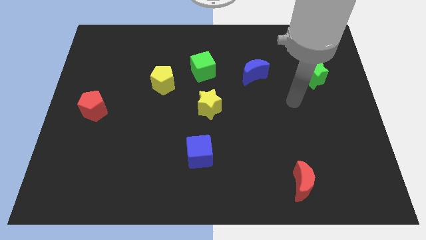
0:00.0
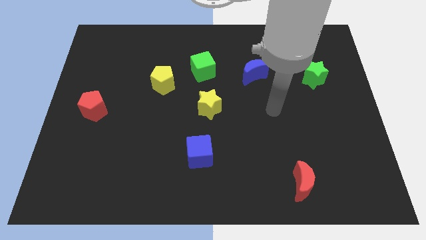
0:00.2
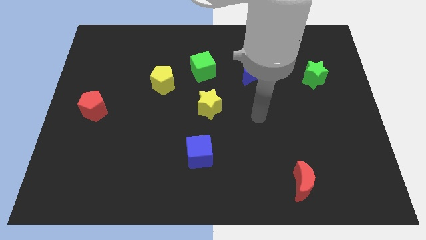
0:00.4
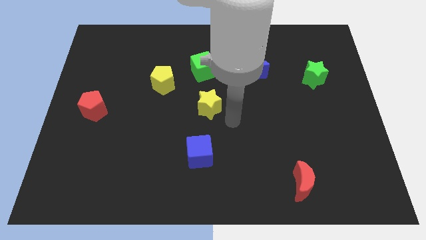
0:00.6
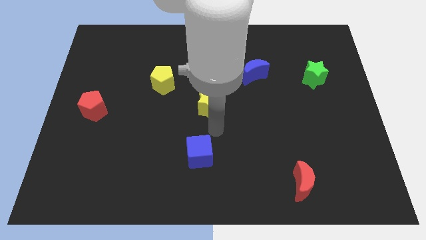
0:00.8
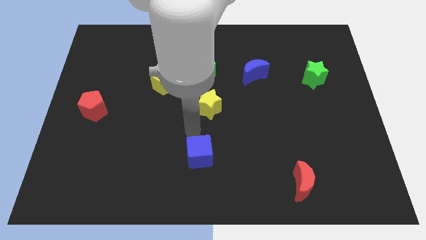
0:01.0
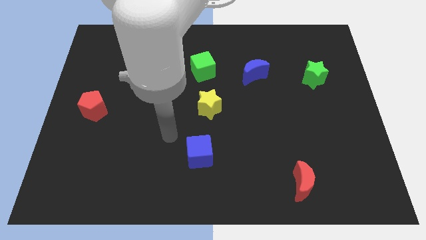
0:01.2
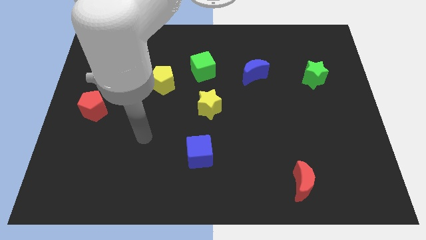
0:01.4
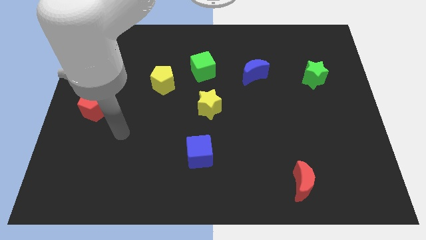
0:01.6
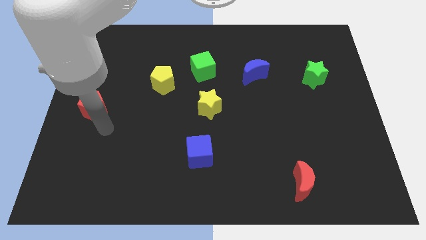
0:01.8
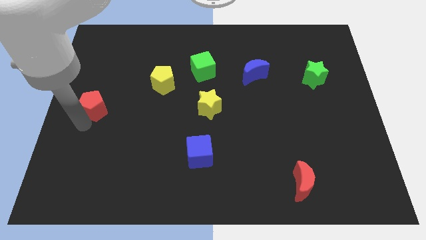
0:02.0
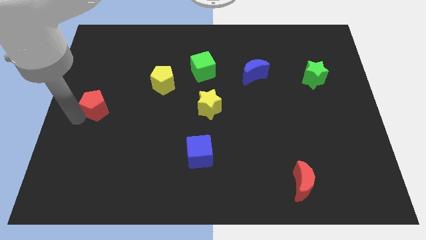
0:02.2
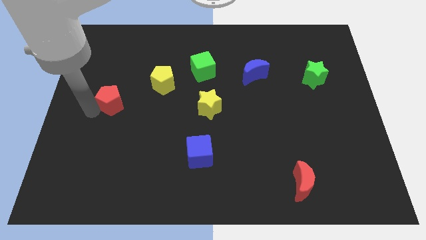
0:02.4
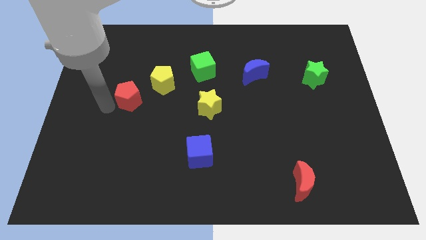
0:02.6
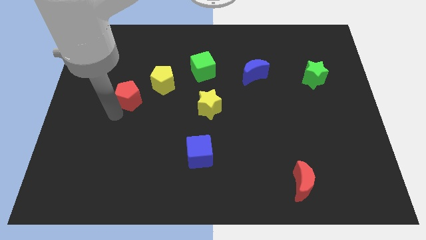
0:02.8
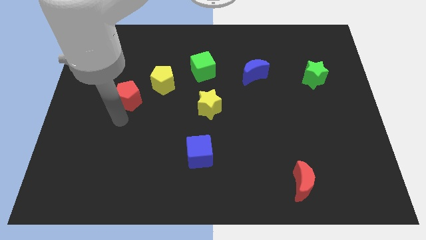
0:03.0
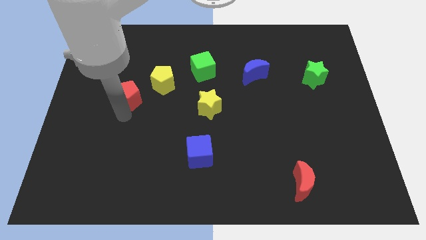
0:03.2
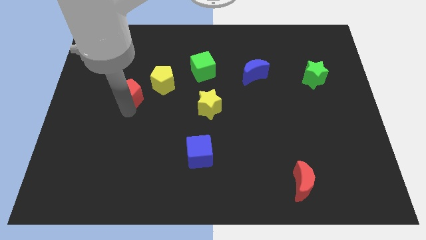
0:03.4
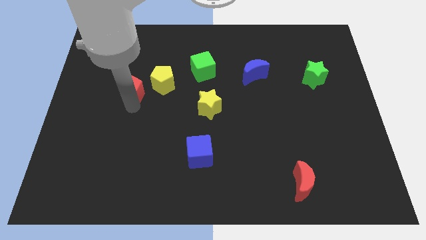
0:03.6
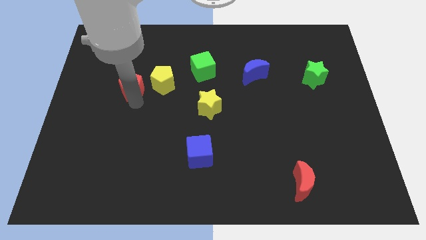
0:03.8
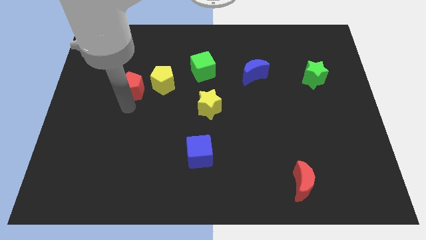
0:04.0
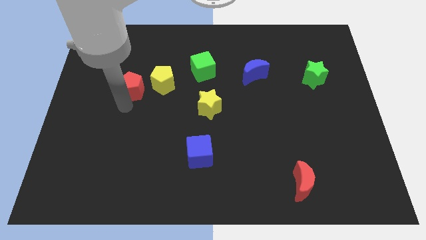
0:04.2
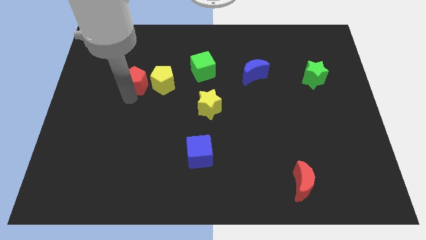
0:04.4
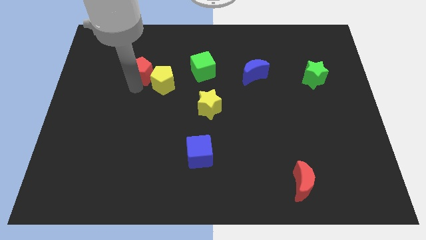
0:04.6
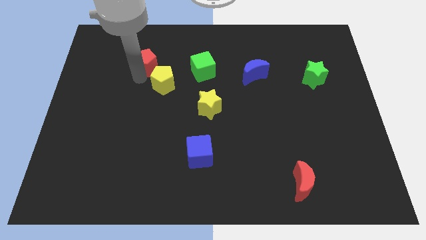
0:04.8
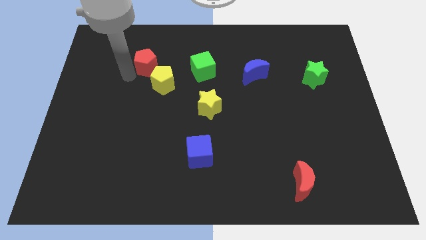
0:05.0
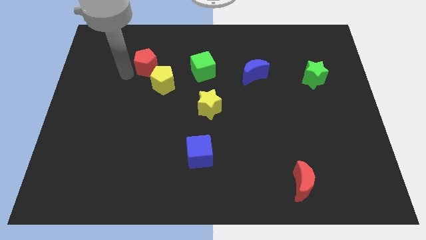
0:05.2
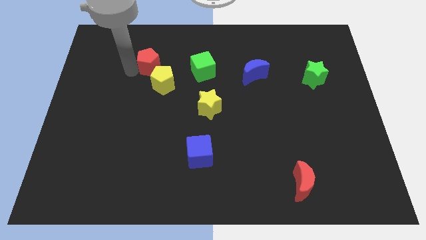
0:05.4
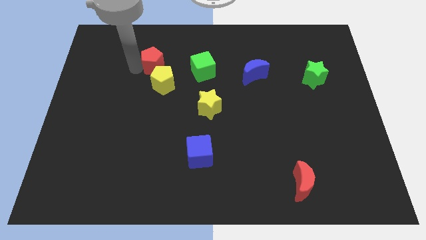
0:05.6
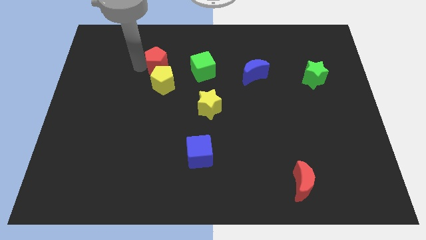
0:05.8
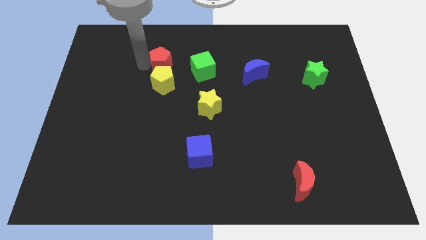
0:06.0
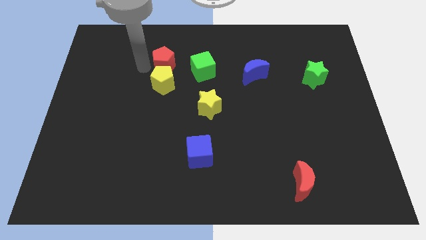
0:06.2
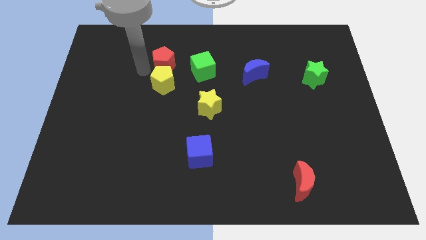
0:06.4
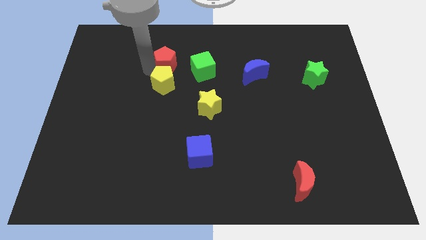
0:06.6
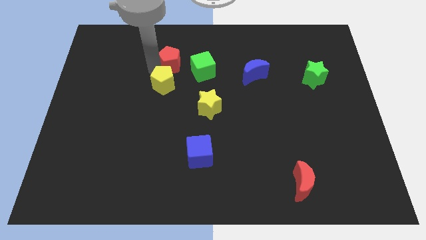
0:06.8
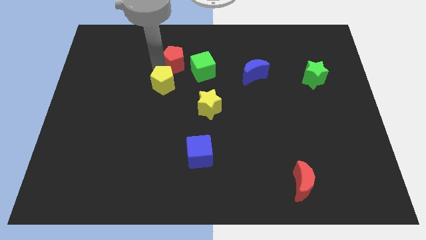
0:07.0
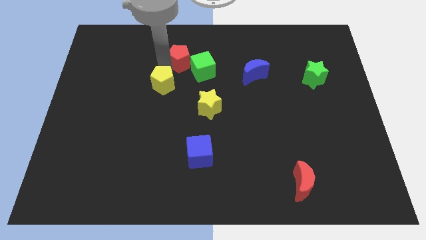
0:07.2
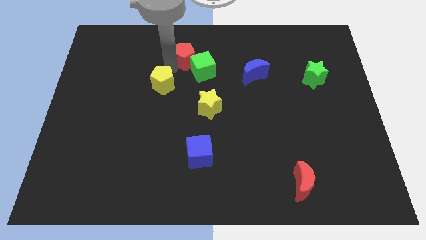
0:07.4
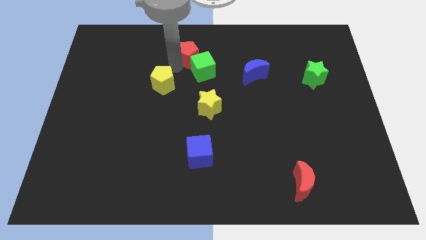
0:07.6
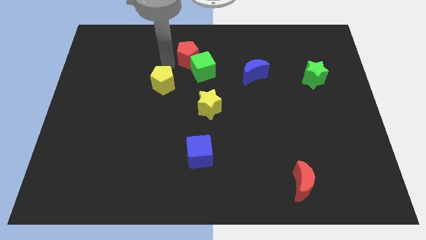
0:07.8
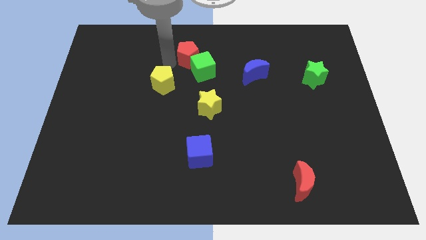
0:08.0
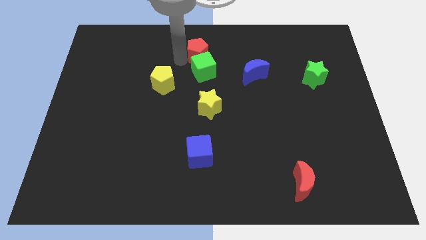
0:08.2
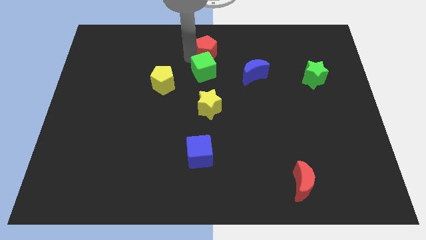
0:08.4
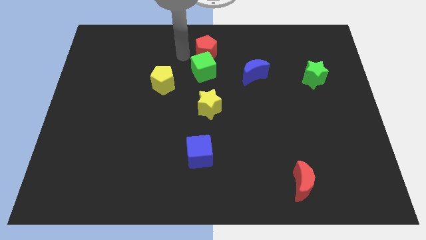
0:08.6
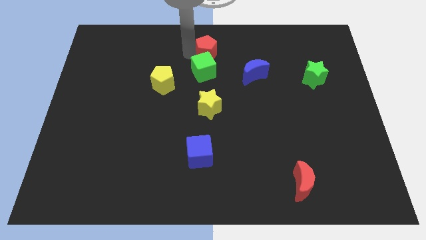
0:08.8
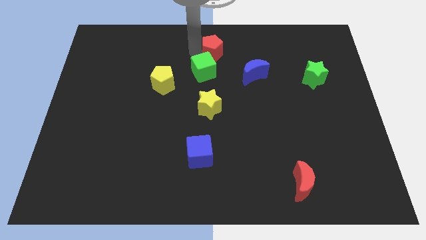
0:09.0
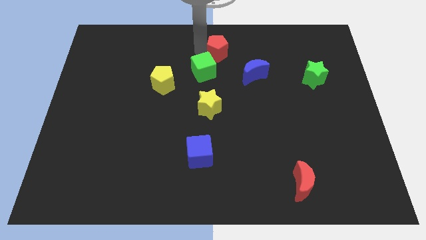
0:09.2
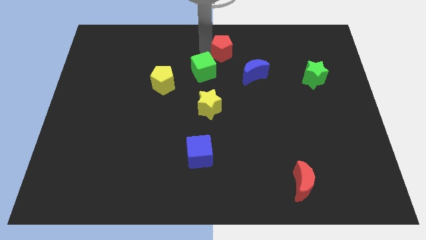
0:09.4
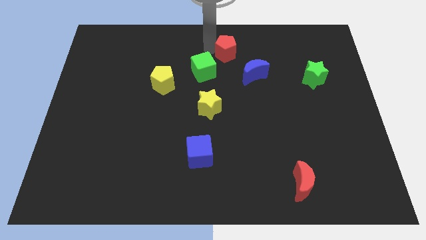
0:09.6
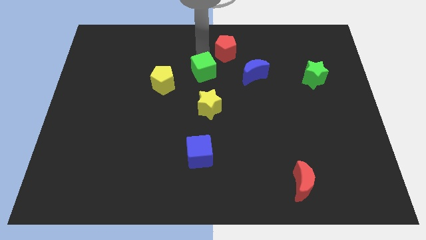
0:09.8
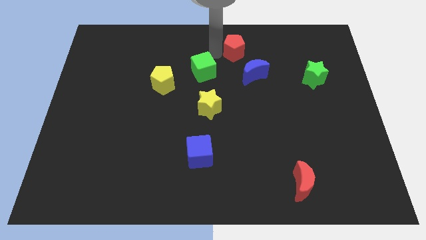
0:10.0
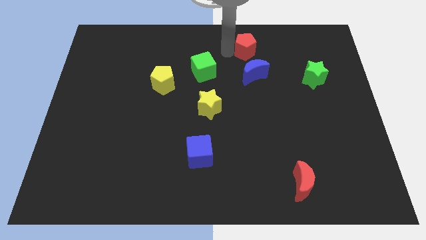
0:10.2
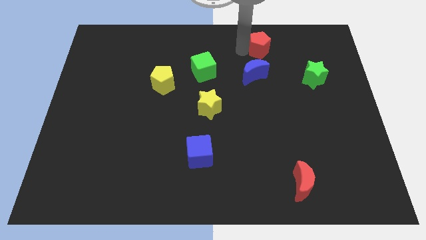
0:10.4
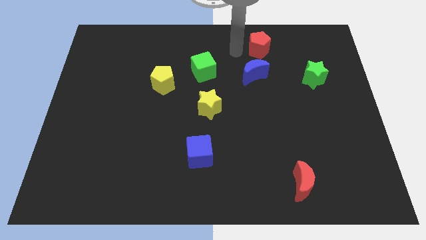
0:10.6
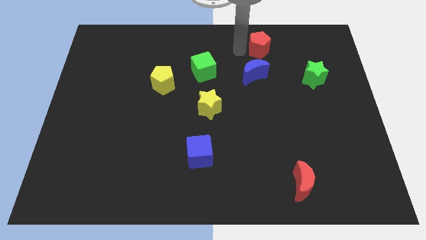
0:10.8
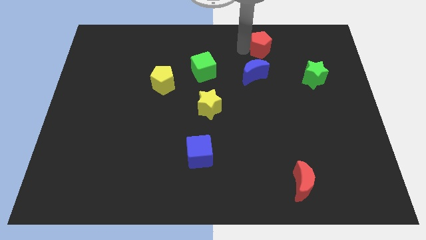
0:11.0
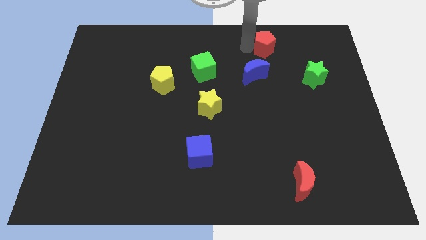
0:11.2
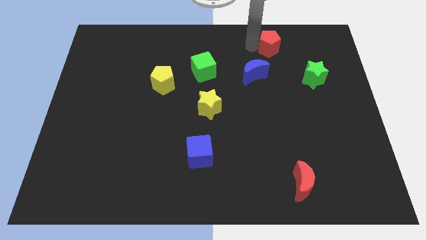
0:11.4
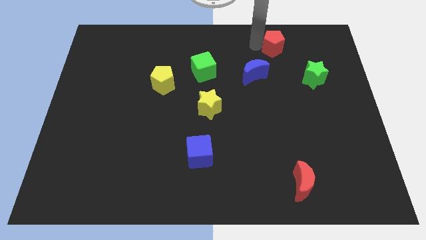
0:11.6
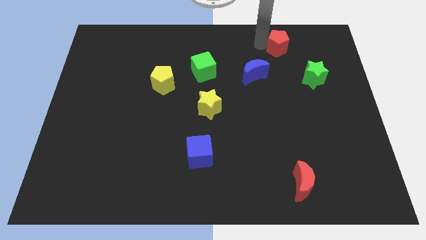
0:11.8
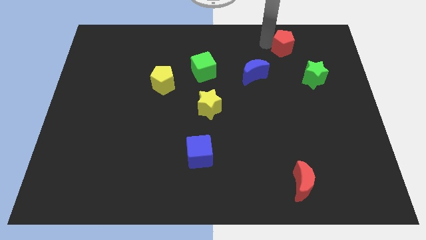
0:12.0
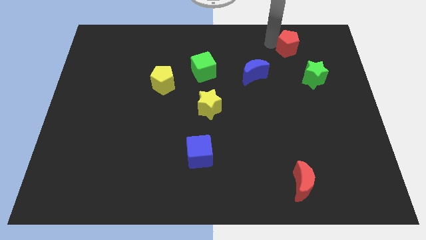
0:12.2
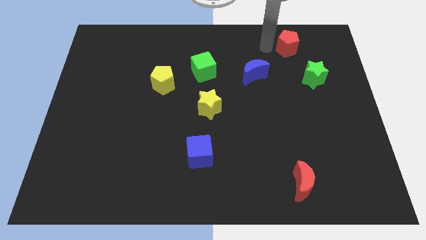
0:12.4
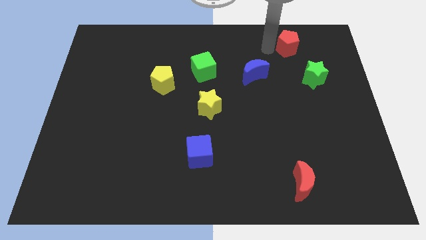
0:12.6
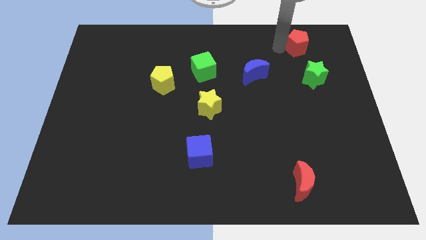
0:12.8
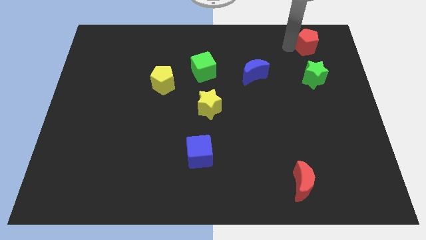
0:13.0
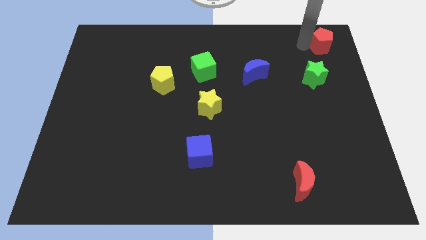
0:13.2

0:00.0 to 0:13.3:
move the red pentagon to the top right corner

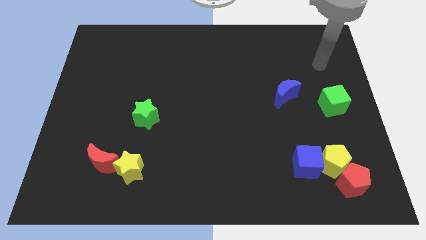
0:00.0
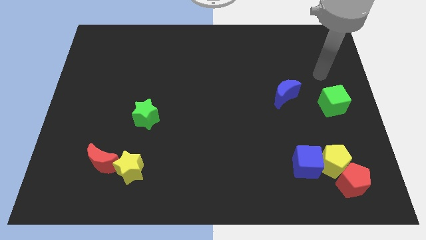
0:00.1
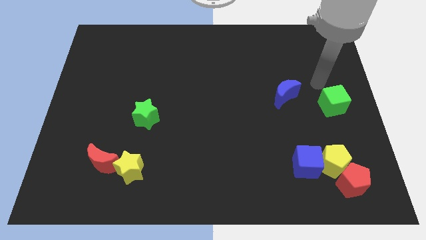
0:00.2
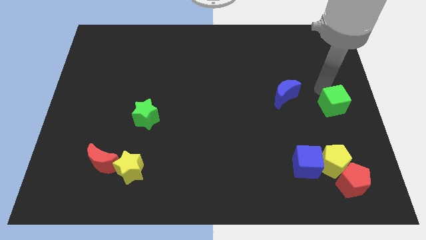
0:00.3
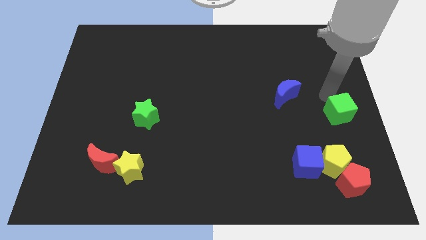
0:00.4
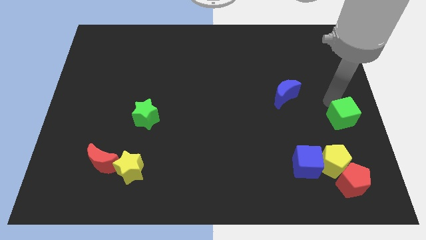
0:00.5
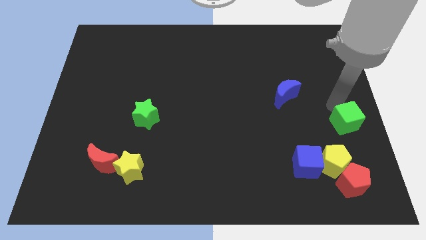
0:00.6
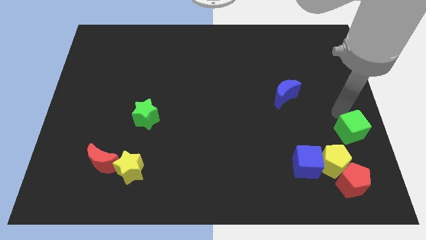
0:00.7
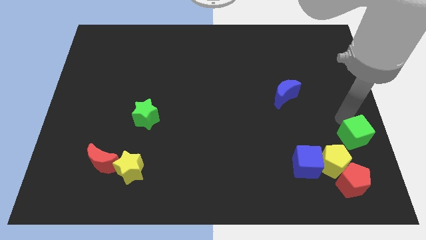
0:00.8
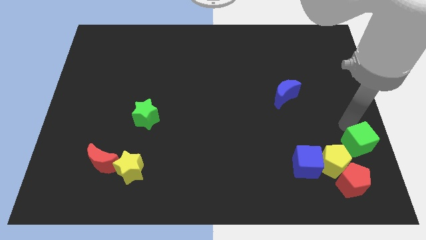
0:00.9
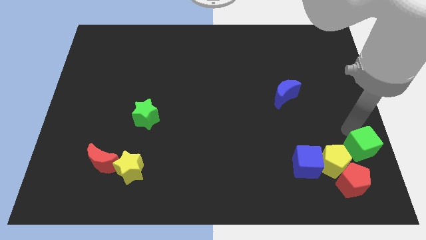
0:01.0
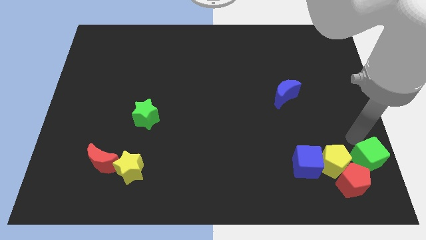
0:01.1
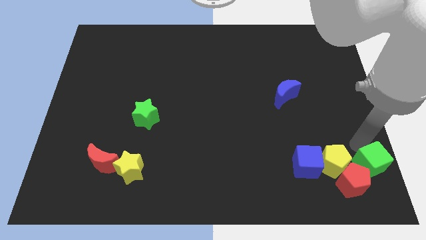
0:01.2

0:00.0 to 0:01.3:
slide the green cube to the bottom right of the board

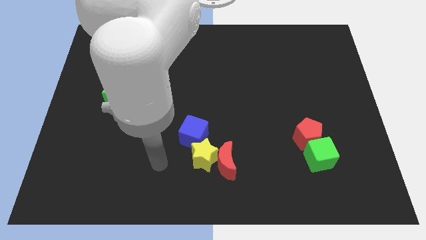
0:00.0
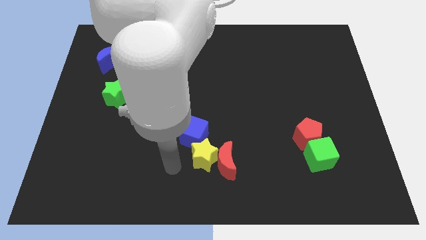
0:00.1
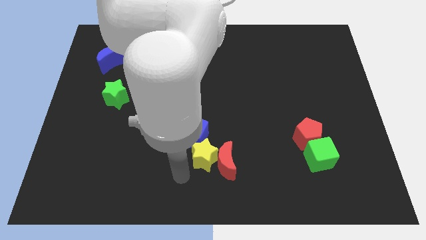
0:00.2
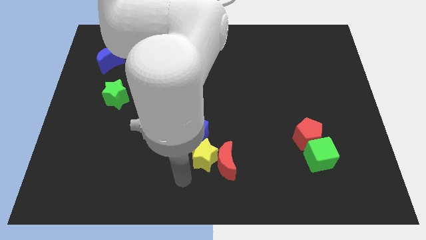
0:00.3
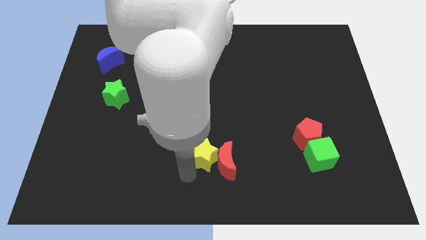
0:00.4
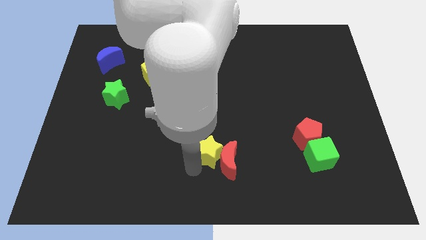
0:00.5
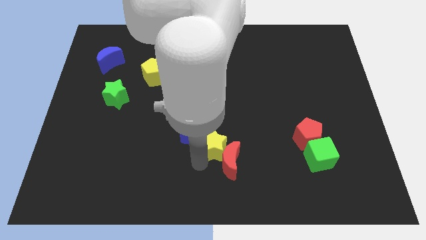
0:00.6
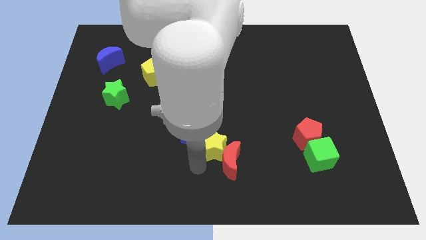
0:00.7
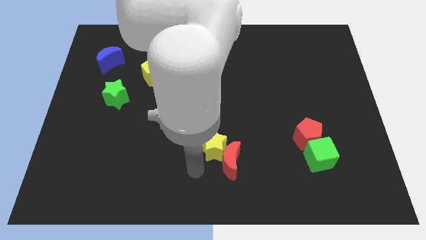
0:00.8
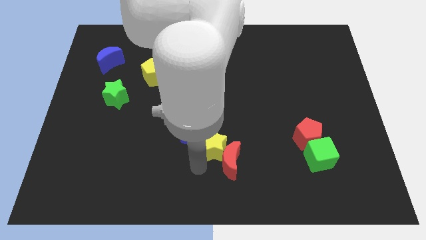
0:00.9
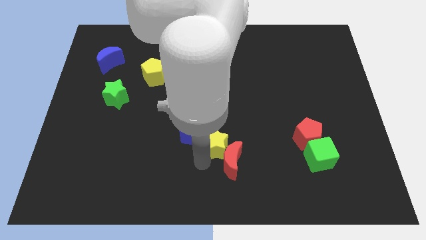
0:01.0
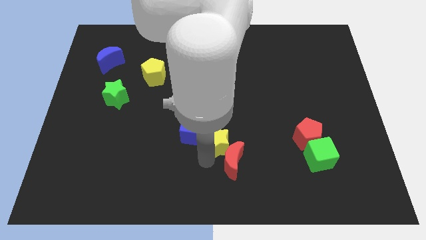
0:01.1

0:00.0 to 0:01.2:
put the yellow star to the center
